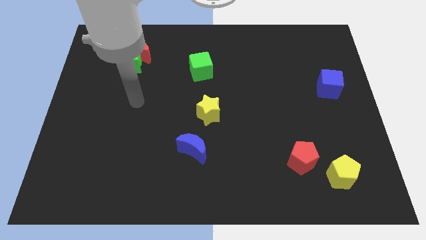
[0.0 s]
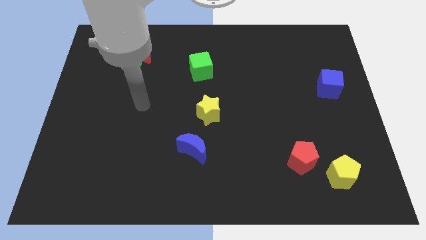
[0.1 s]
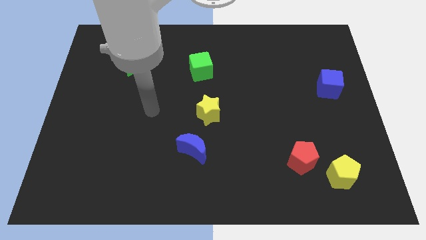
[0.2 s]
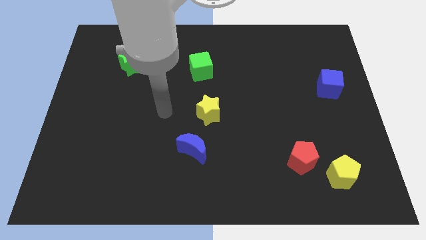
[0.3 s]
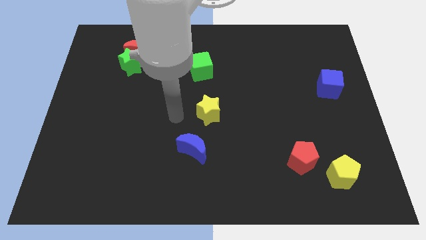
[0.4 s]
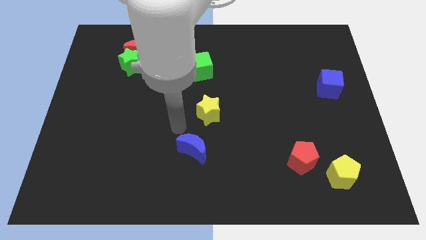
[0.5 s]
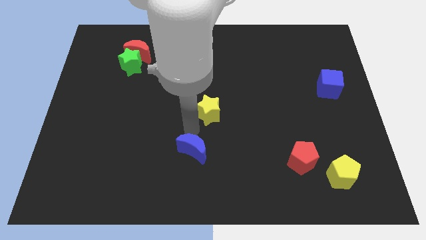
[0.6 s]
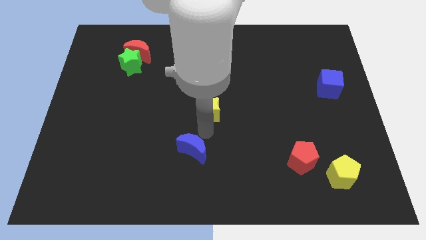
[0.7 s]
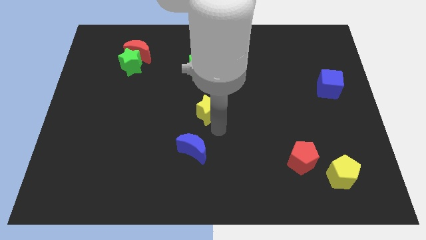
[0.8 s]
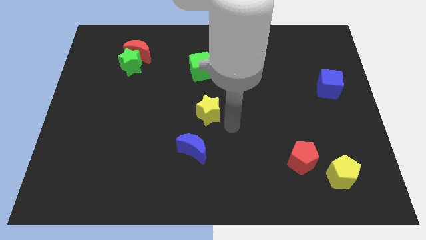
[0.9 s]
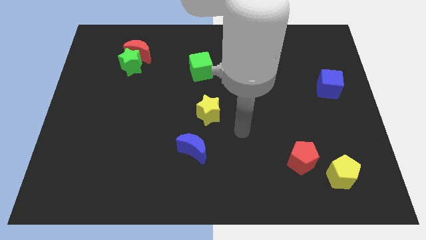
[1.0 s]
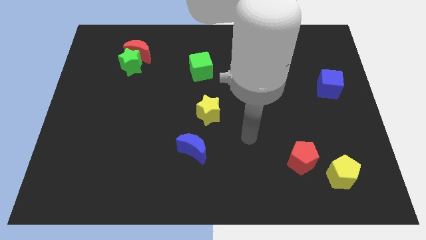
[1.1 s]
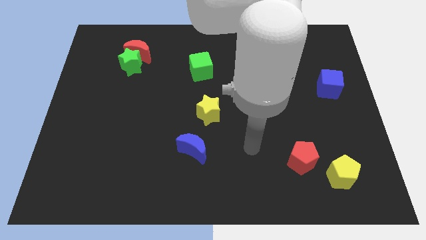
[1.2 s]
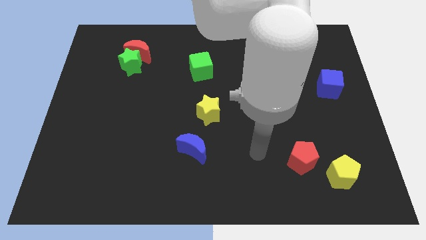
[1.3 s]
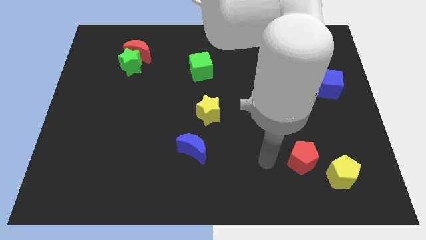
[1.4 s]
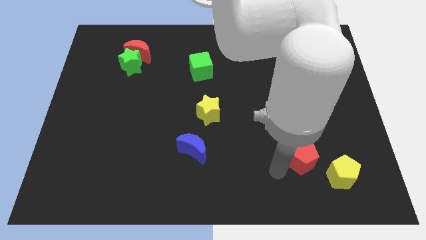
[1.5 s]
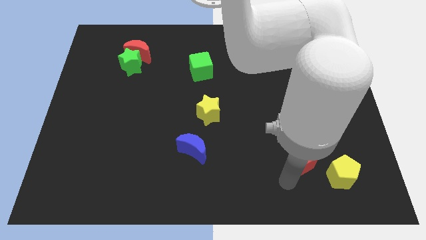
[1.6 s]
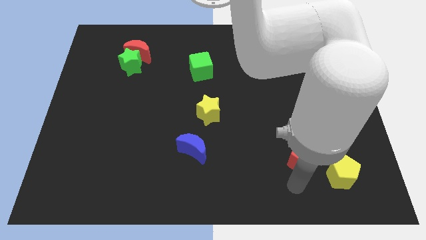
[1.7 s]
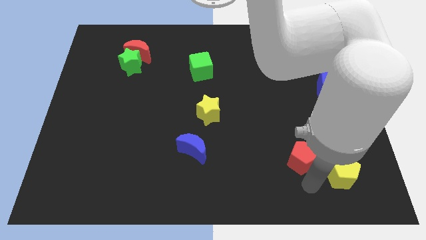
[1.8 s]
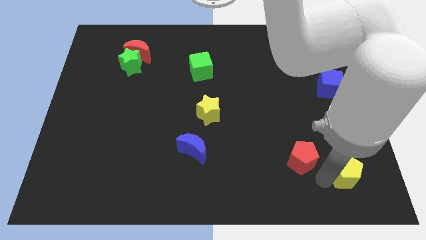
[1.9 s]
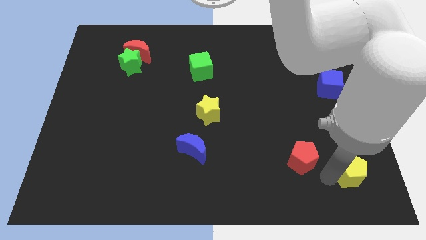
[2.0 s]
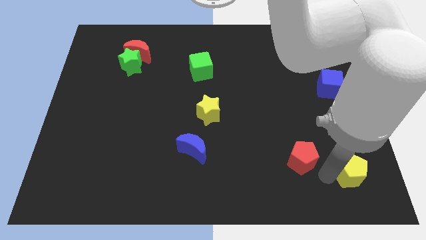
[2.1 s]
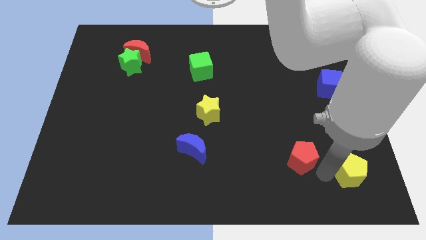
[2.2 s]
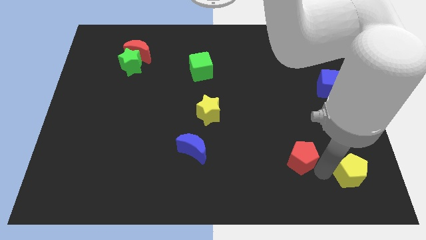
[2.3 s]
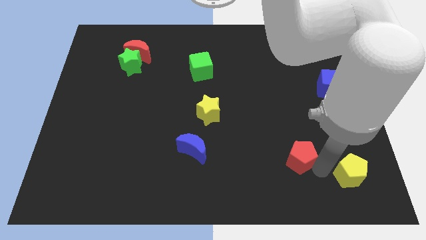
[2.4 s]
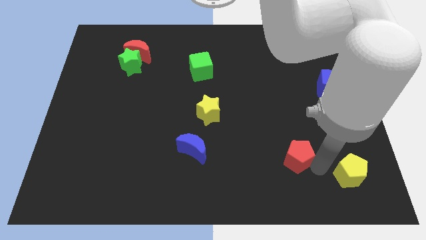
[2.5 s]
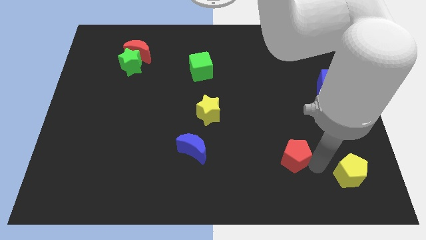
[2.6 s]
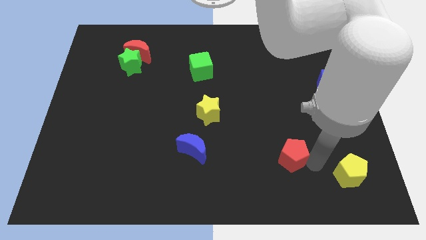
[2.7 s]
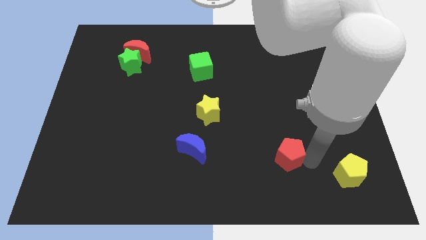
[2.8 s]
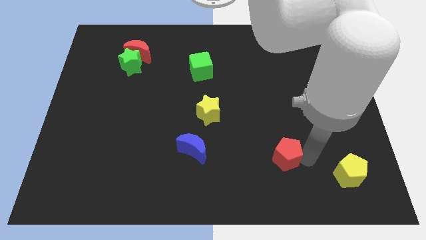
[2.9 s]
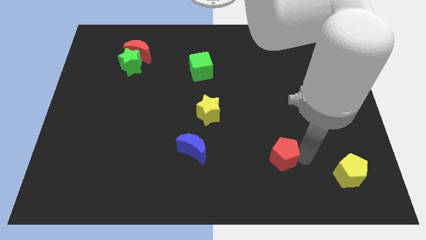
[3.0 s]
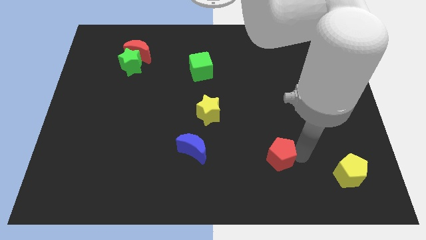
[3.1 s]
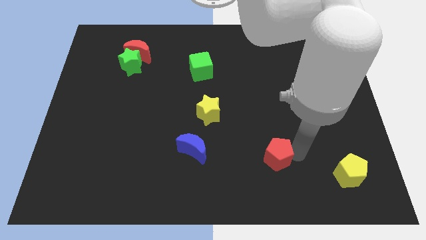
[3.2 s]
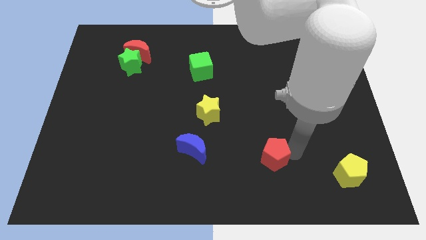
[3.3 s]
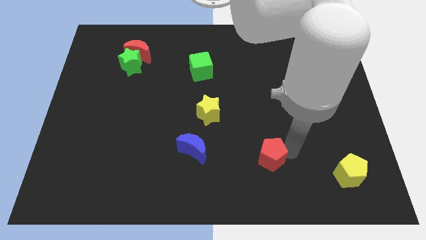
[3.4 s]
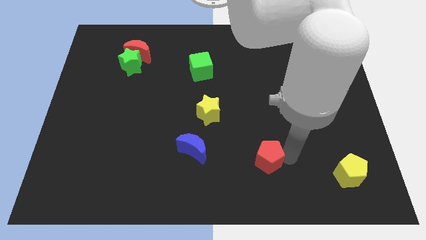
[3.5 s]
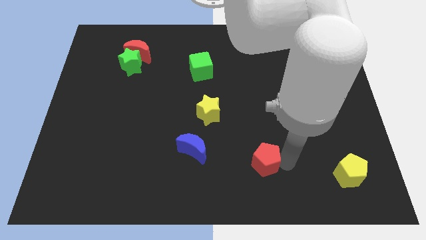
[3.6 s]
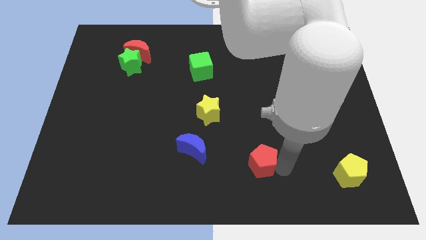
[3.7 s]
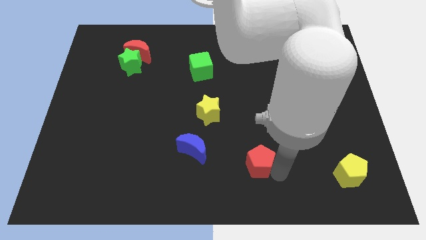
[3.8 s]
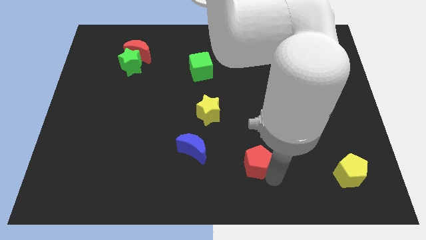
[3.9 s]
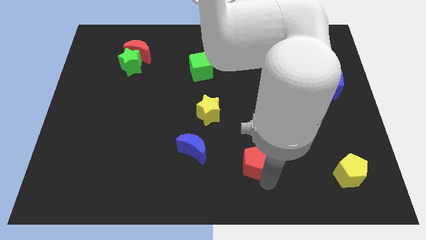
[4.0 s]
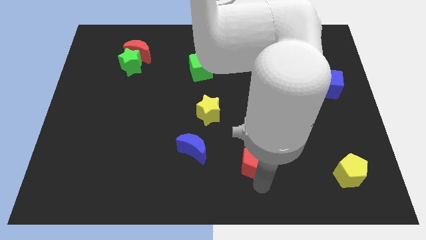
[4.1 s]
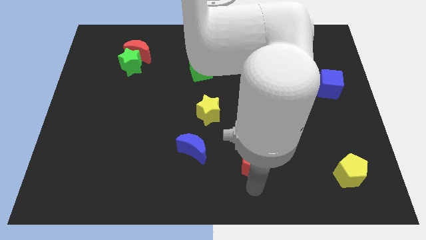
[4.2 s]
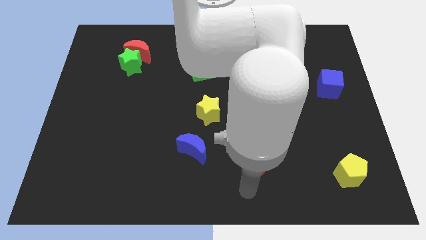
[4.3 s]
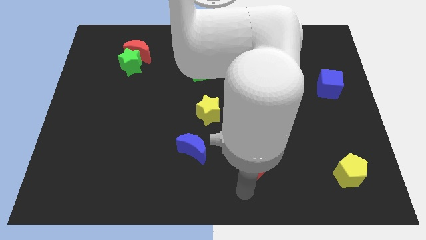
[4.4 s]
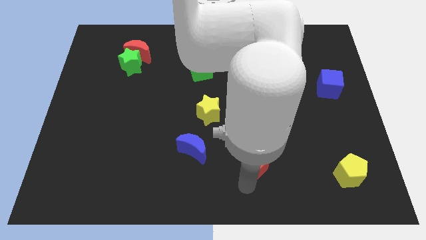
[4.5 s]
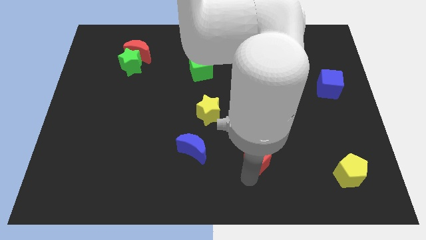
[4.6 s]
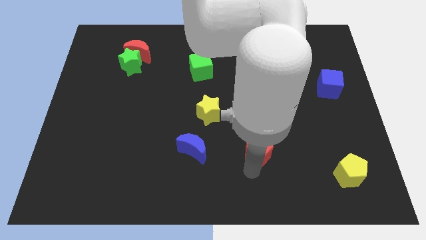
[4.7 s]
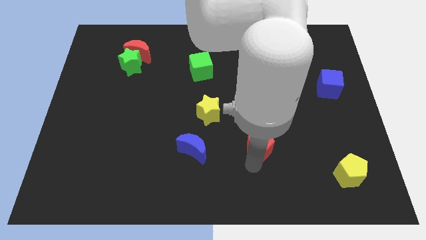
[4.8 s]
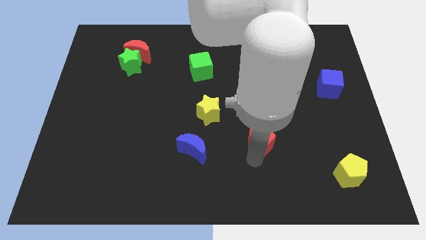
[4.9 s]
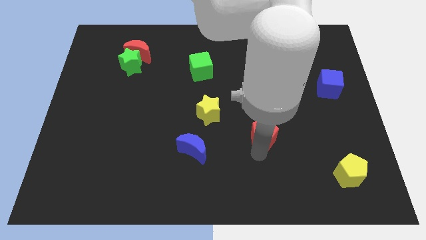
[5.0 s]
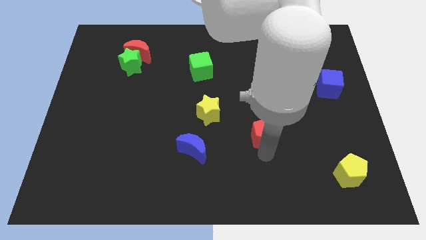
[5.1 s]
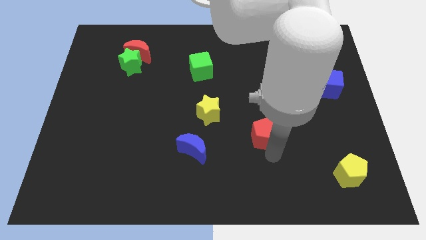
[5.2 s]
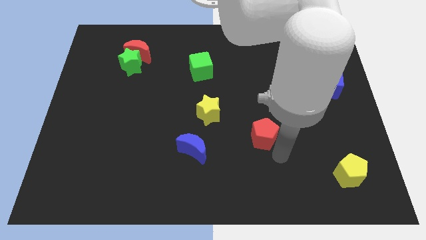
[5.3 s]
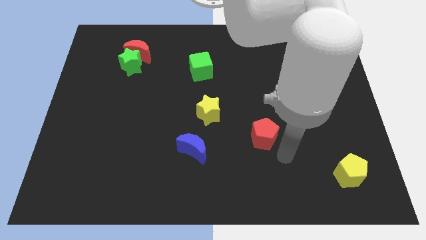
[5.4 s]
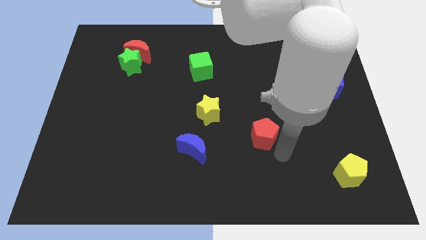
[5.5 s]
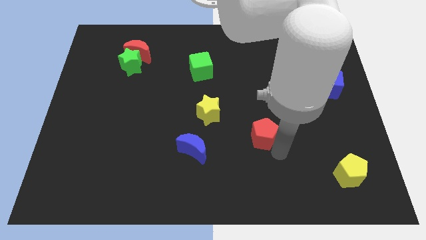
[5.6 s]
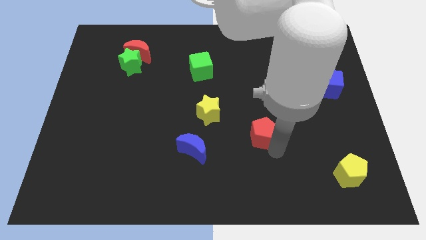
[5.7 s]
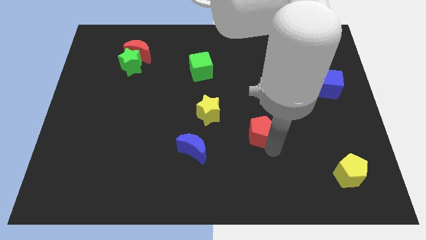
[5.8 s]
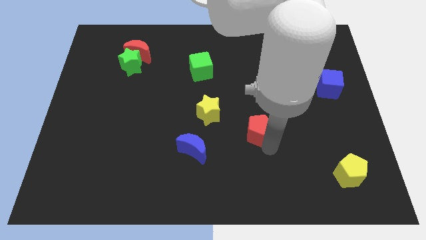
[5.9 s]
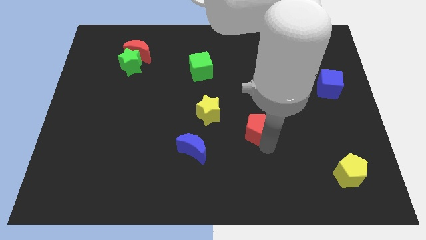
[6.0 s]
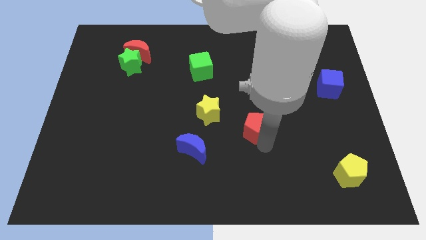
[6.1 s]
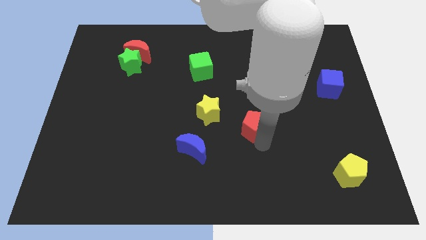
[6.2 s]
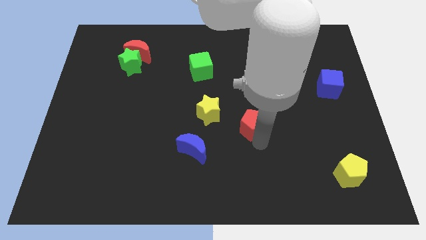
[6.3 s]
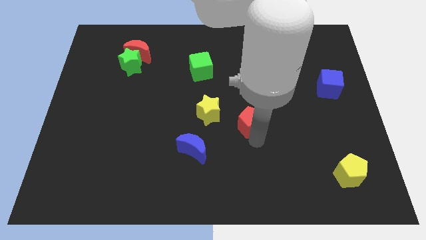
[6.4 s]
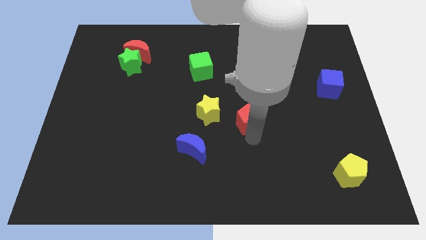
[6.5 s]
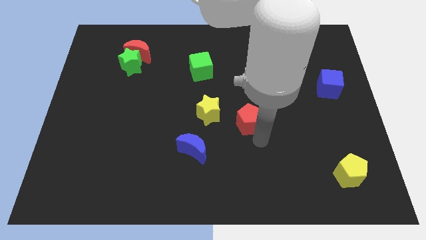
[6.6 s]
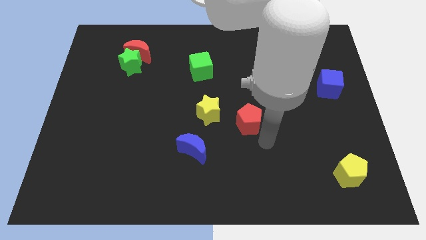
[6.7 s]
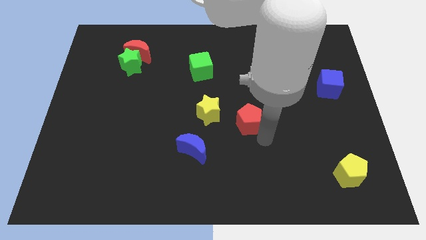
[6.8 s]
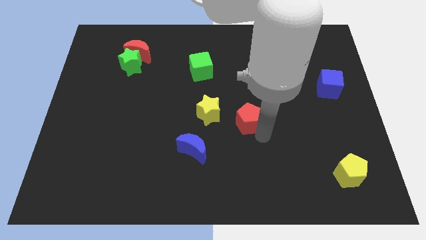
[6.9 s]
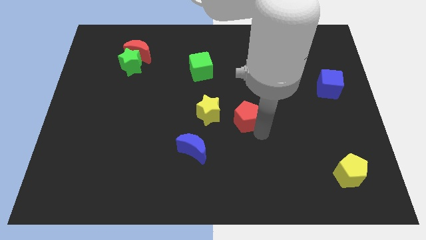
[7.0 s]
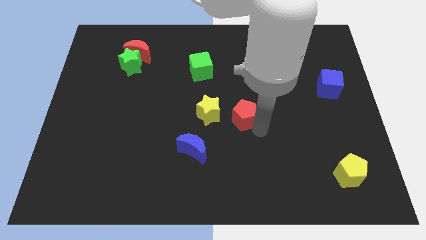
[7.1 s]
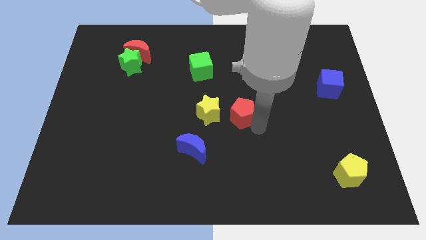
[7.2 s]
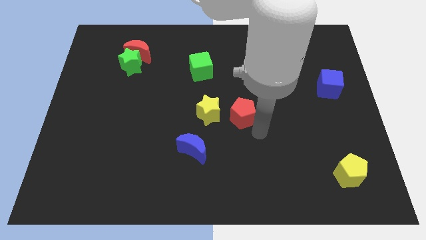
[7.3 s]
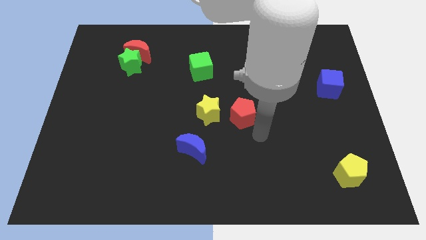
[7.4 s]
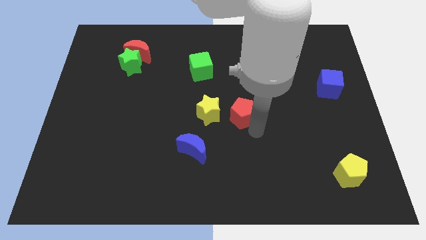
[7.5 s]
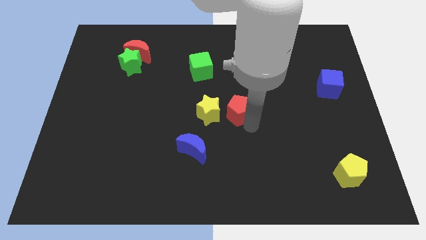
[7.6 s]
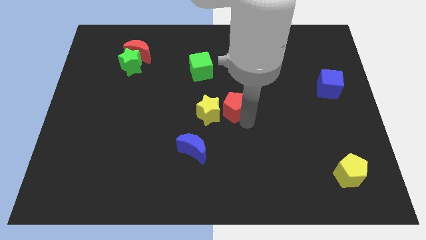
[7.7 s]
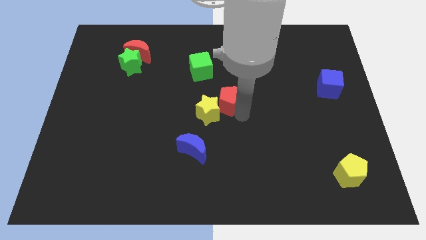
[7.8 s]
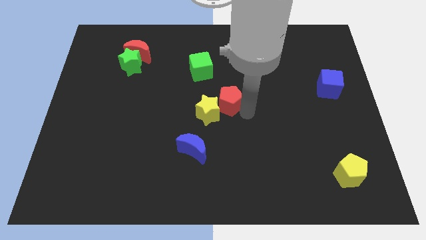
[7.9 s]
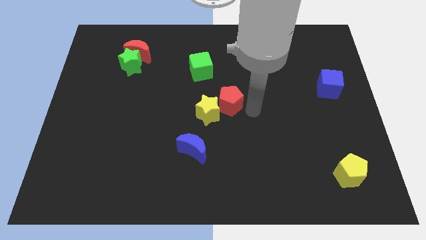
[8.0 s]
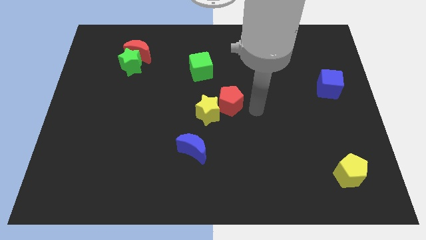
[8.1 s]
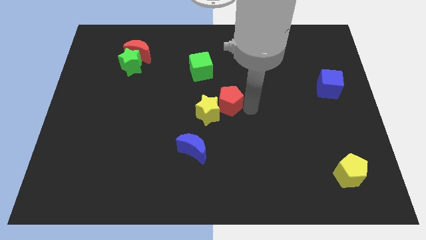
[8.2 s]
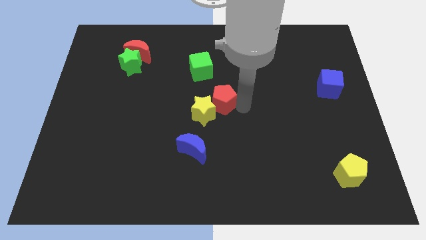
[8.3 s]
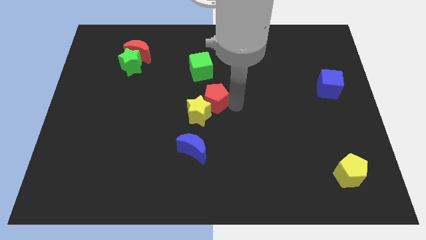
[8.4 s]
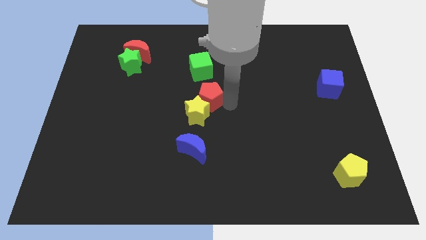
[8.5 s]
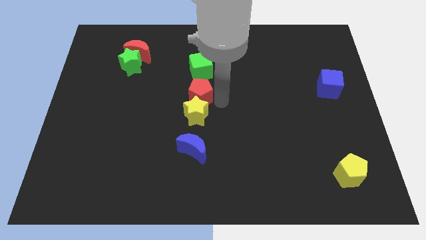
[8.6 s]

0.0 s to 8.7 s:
move the red pentagon to the top left of the yellow star
